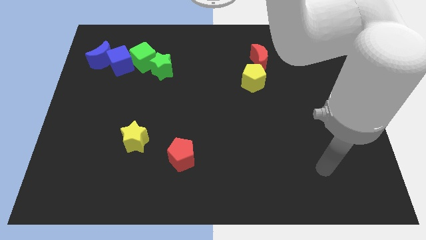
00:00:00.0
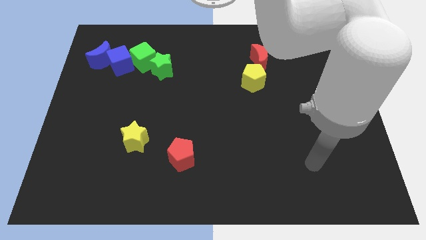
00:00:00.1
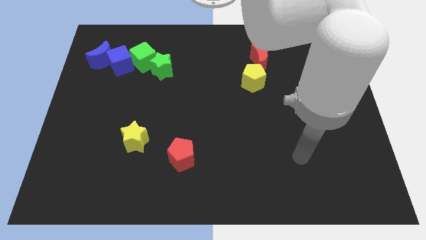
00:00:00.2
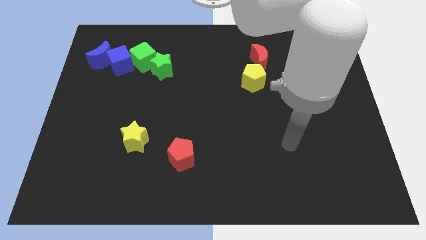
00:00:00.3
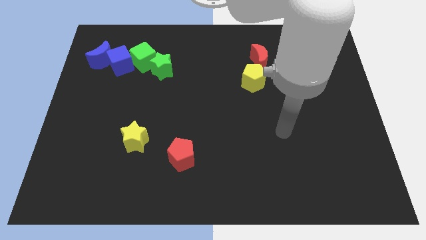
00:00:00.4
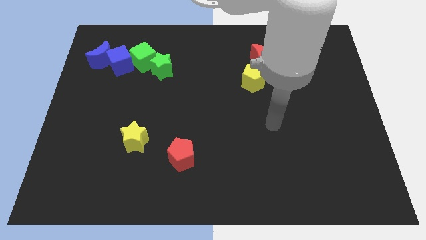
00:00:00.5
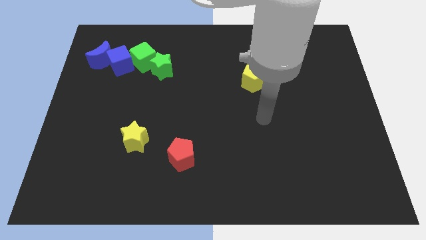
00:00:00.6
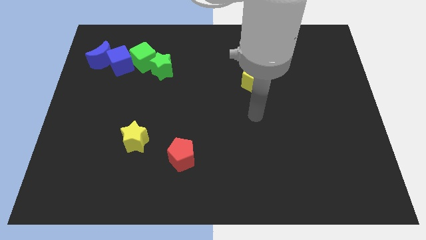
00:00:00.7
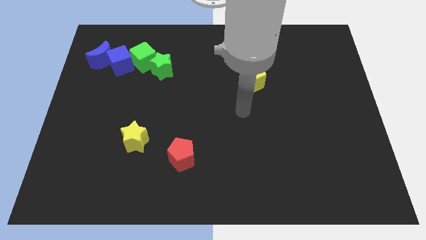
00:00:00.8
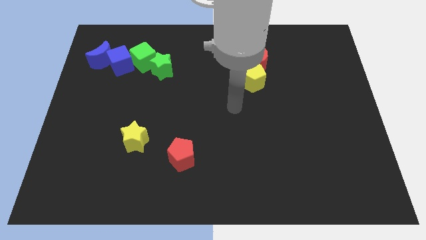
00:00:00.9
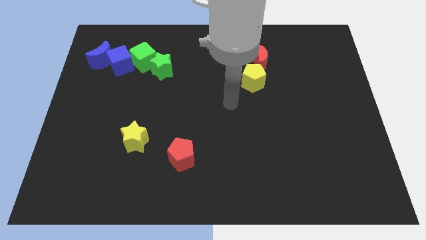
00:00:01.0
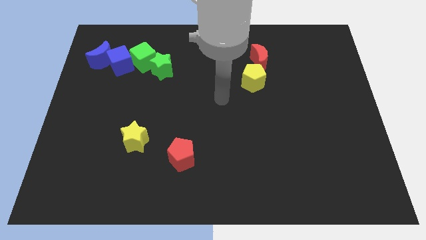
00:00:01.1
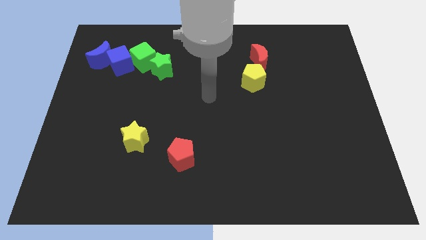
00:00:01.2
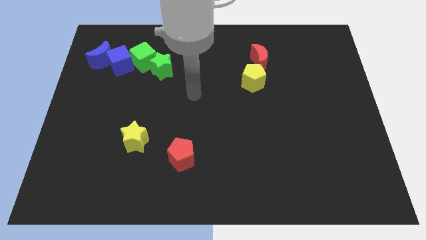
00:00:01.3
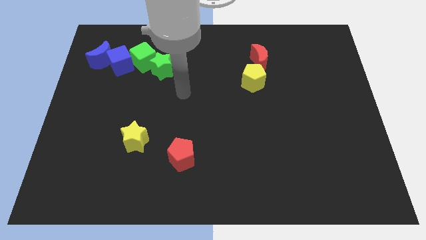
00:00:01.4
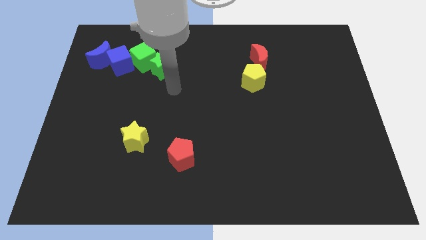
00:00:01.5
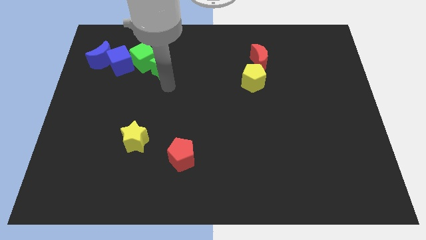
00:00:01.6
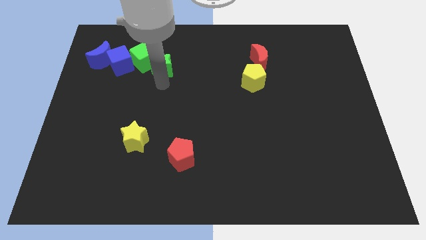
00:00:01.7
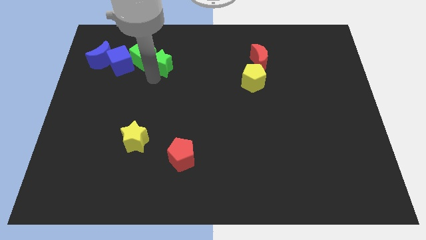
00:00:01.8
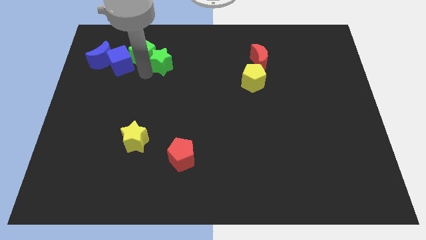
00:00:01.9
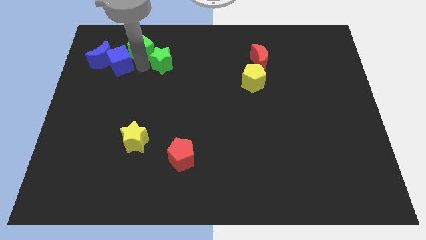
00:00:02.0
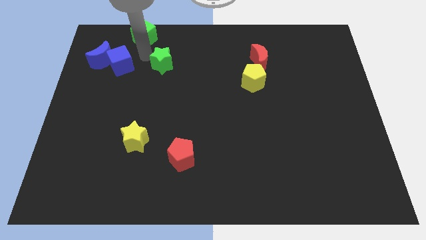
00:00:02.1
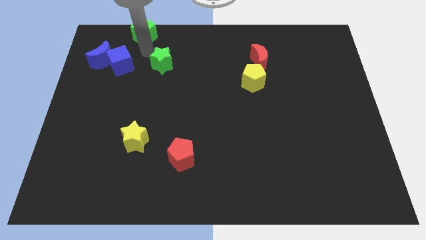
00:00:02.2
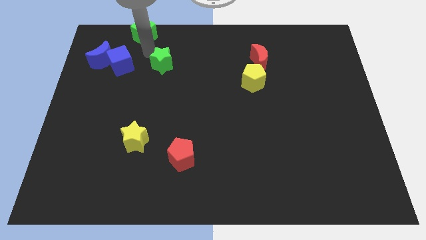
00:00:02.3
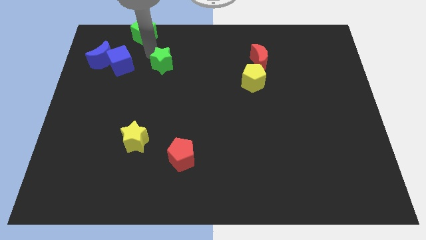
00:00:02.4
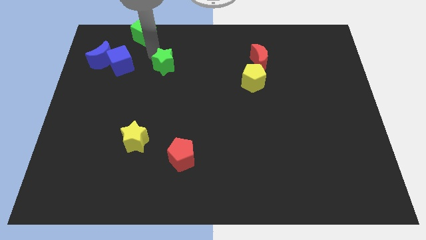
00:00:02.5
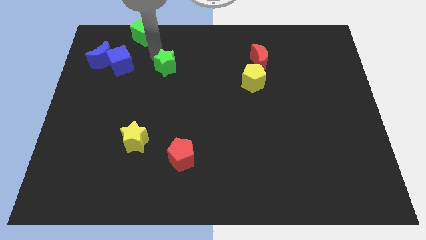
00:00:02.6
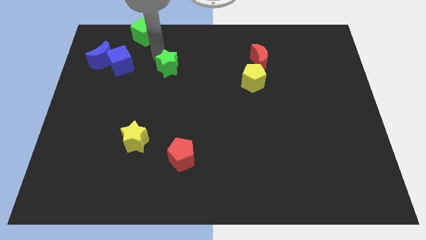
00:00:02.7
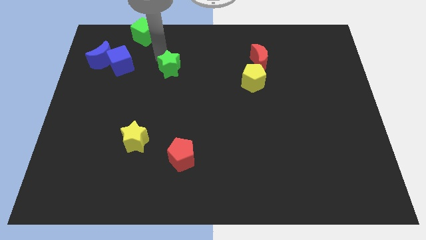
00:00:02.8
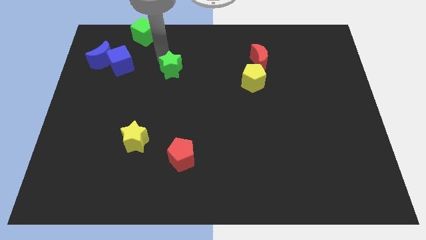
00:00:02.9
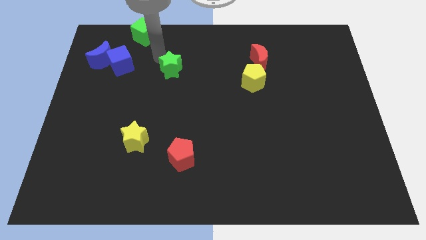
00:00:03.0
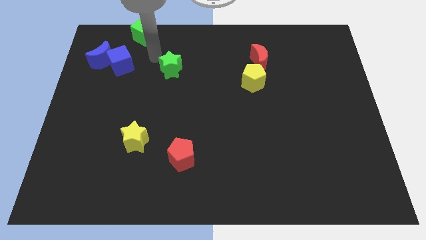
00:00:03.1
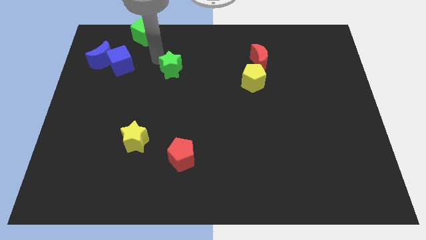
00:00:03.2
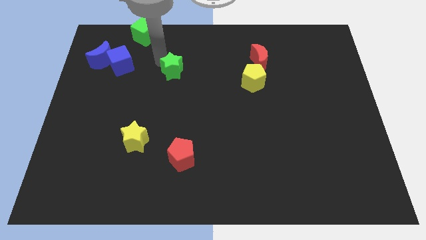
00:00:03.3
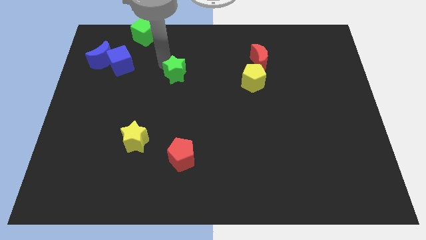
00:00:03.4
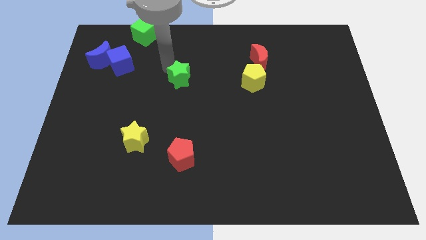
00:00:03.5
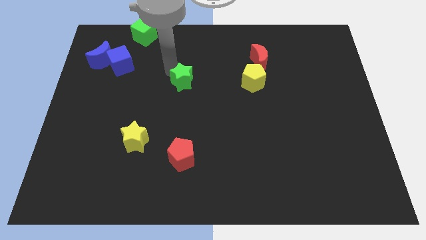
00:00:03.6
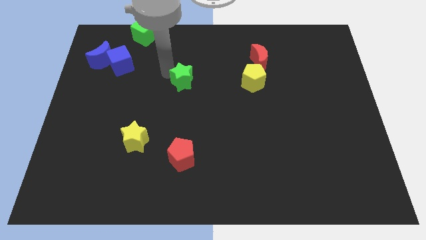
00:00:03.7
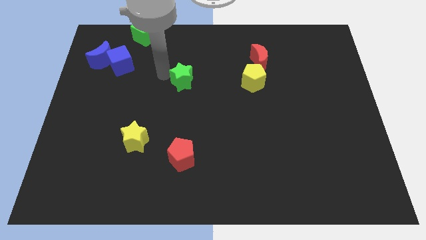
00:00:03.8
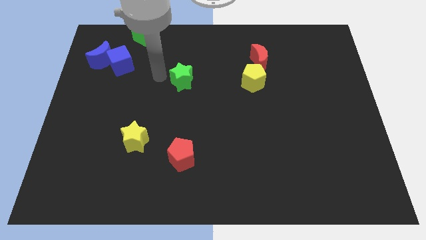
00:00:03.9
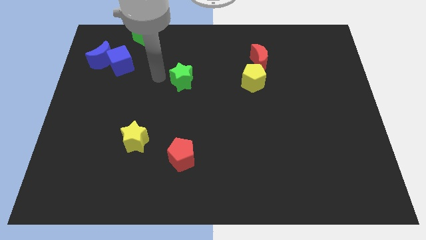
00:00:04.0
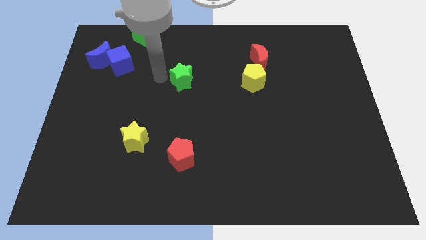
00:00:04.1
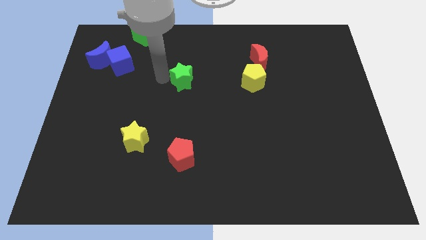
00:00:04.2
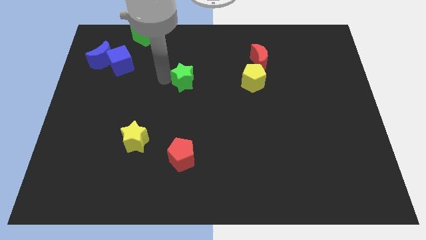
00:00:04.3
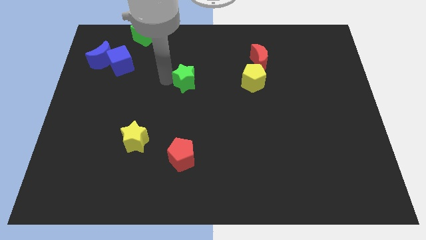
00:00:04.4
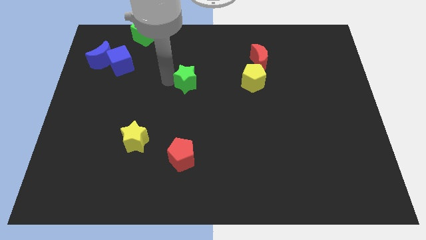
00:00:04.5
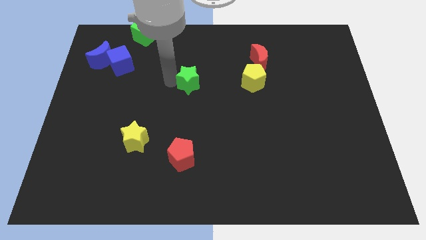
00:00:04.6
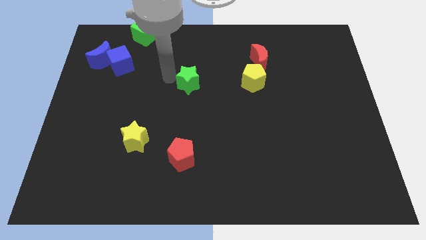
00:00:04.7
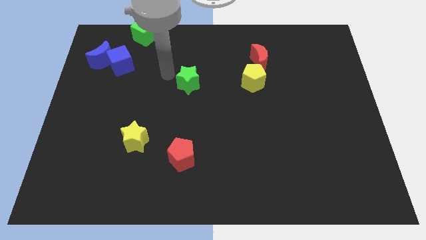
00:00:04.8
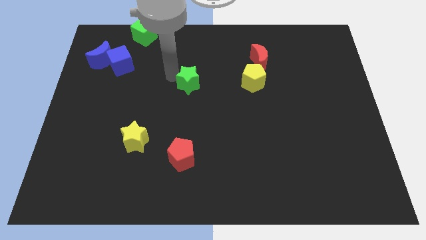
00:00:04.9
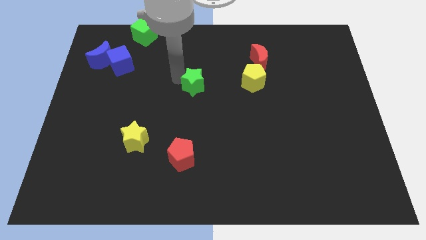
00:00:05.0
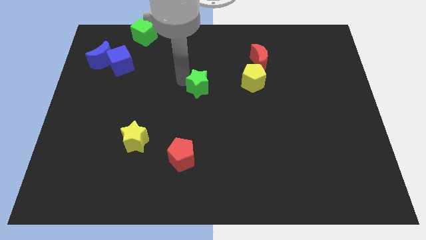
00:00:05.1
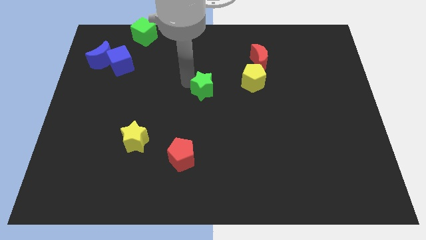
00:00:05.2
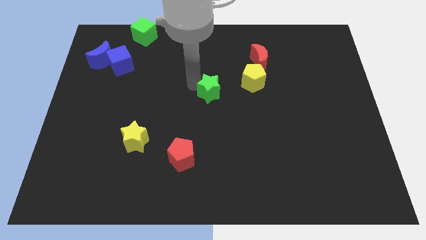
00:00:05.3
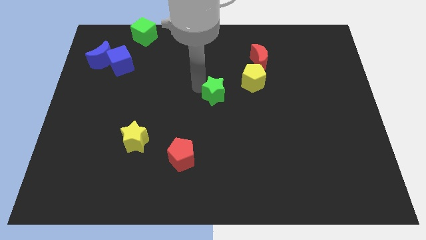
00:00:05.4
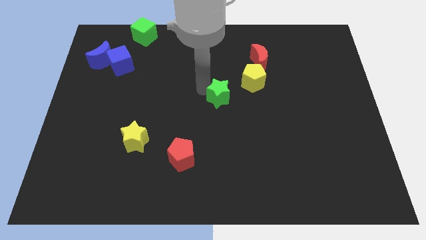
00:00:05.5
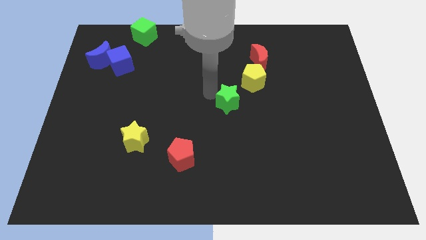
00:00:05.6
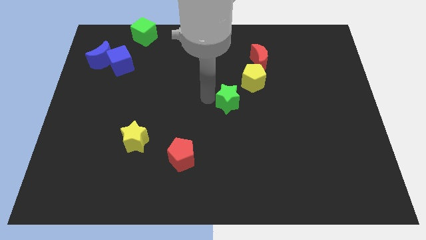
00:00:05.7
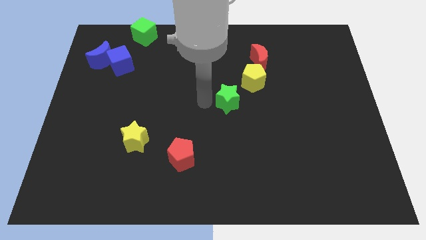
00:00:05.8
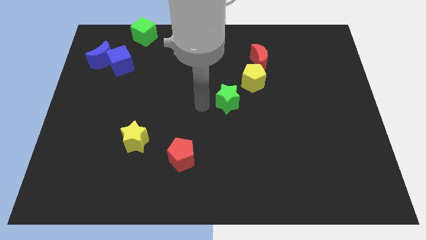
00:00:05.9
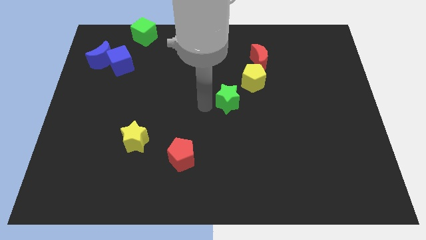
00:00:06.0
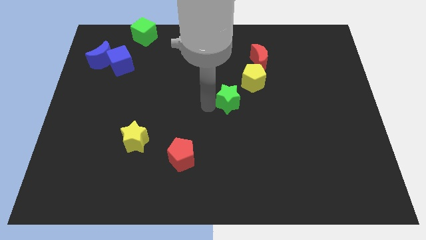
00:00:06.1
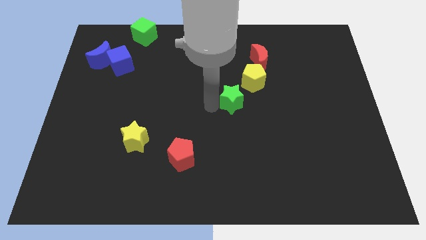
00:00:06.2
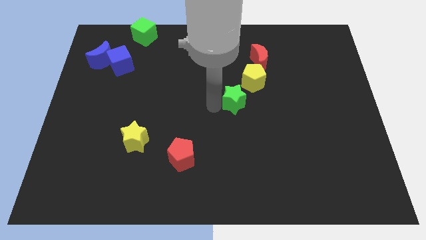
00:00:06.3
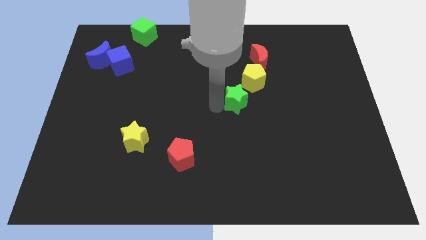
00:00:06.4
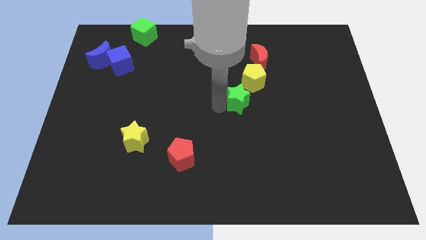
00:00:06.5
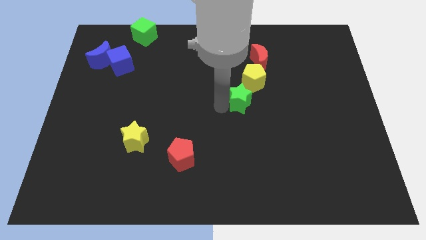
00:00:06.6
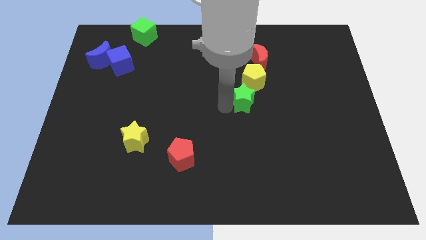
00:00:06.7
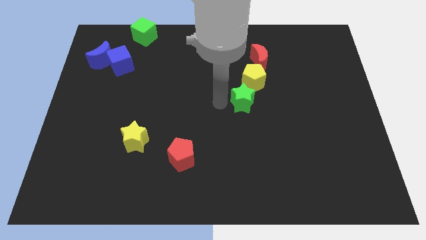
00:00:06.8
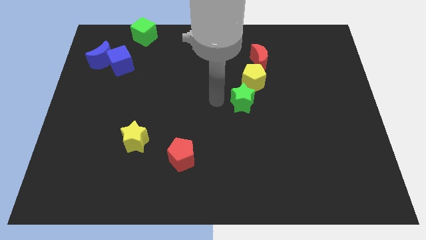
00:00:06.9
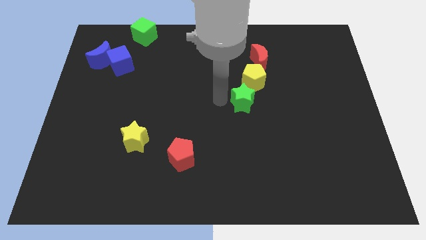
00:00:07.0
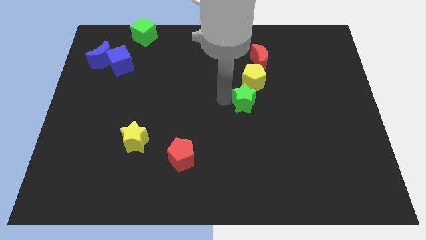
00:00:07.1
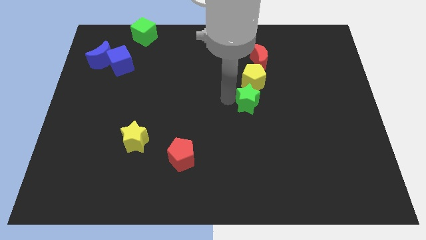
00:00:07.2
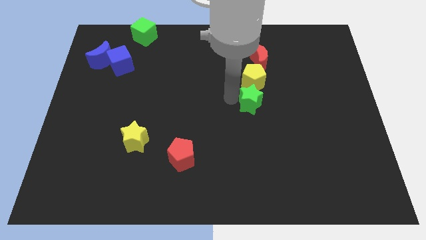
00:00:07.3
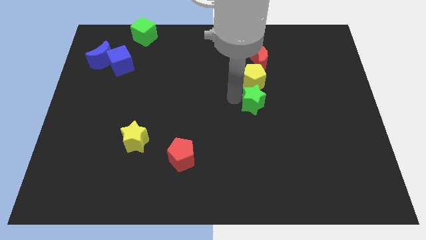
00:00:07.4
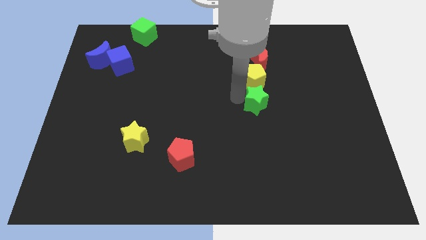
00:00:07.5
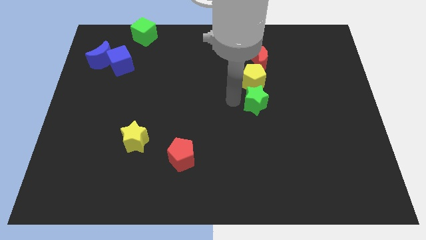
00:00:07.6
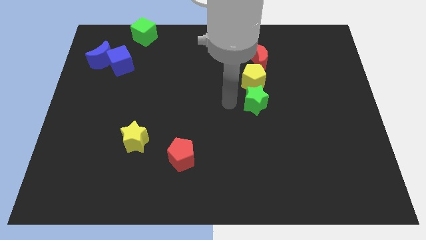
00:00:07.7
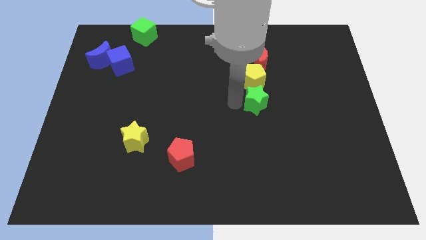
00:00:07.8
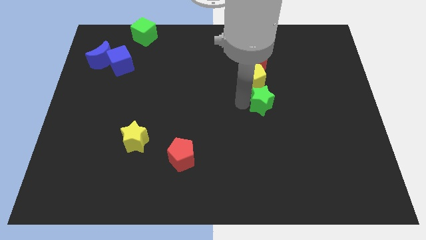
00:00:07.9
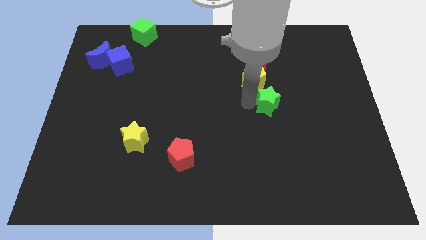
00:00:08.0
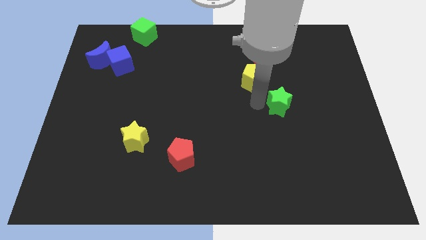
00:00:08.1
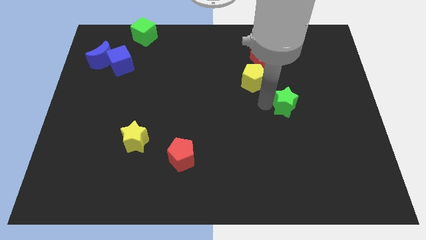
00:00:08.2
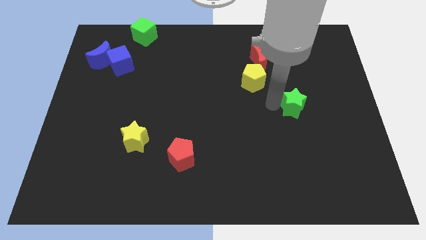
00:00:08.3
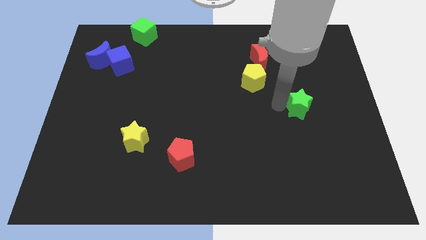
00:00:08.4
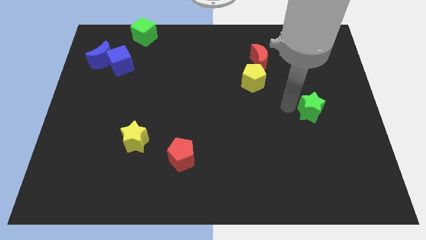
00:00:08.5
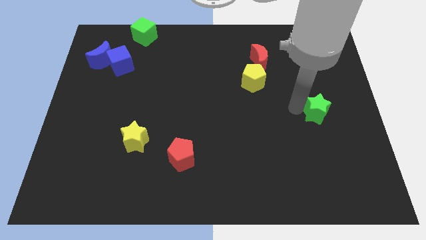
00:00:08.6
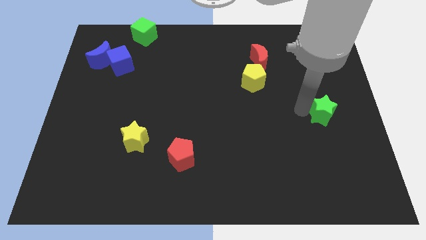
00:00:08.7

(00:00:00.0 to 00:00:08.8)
move the green star to the right side of the board
